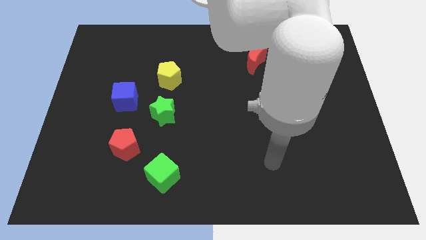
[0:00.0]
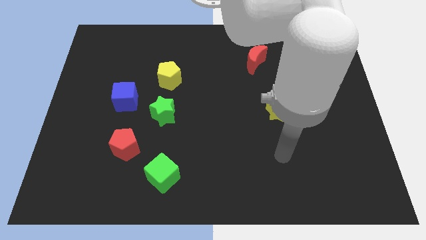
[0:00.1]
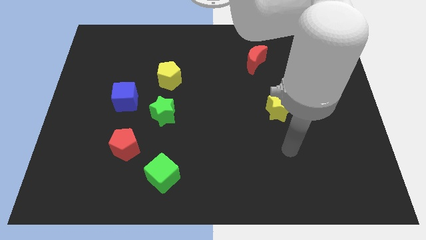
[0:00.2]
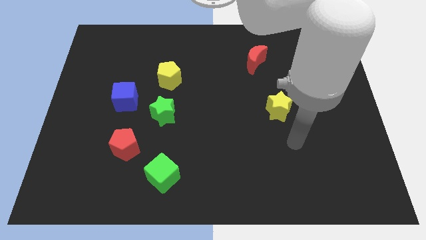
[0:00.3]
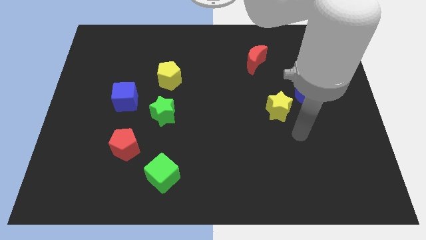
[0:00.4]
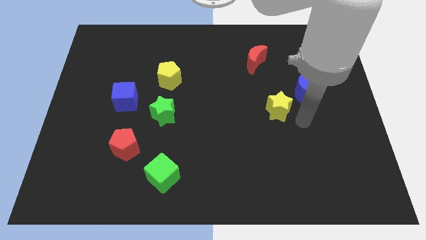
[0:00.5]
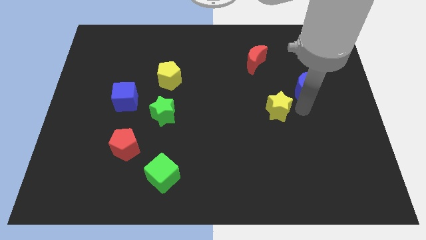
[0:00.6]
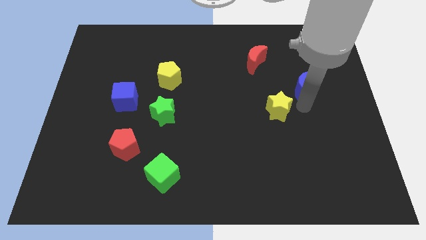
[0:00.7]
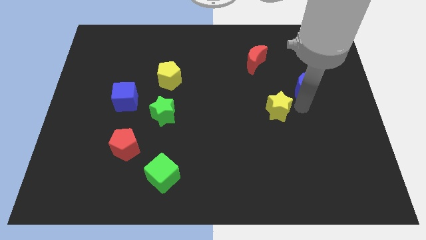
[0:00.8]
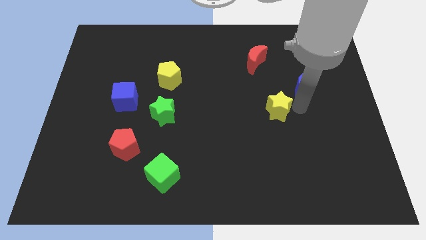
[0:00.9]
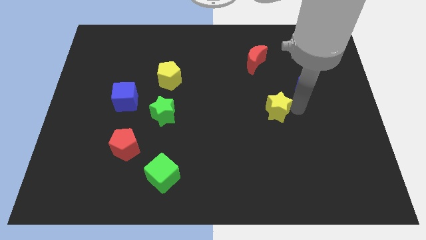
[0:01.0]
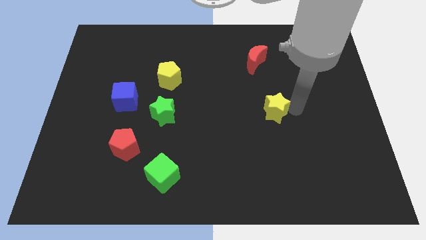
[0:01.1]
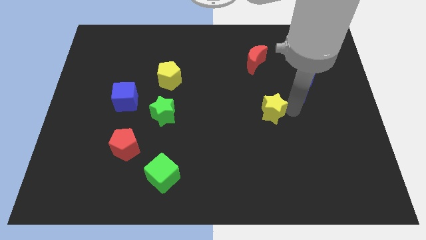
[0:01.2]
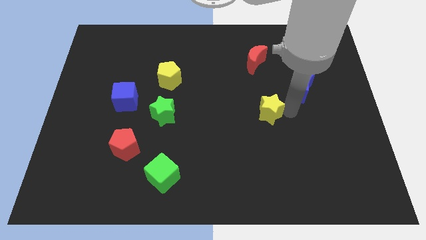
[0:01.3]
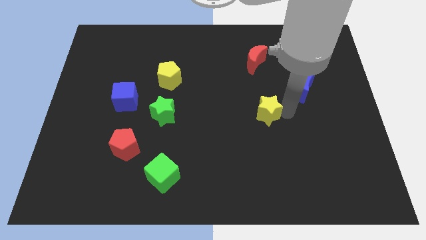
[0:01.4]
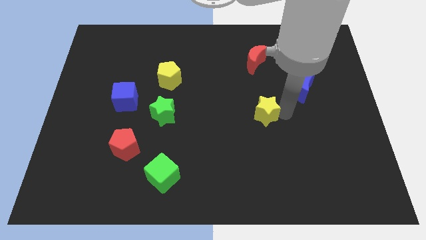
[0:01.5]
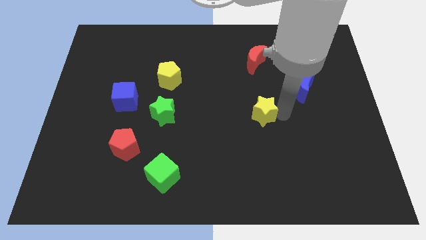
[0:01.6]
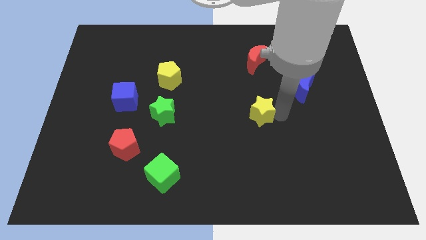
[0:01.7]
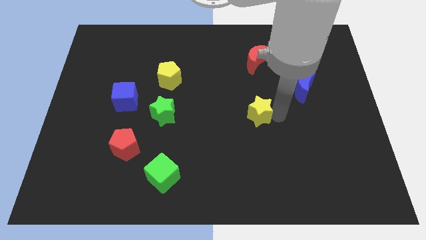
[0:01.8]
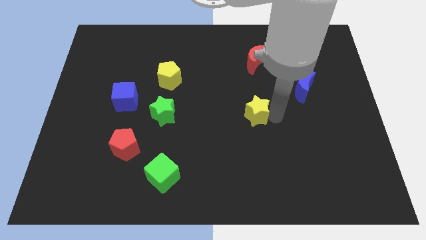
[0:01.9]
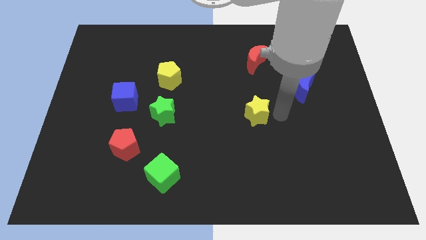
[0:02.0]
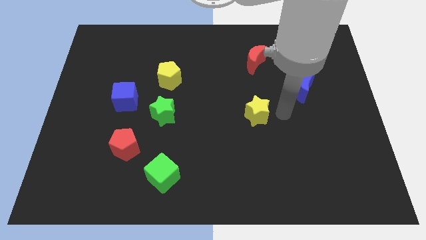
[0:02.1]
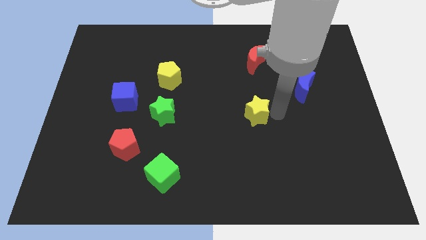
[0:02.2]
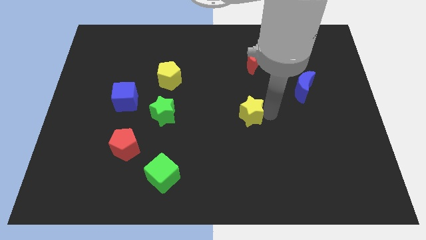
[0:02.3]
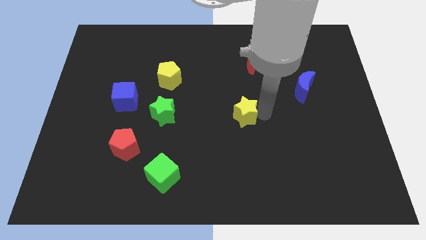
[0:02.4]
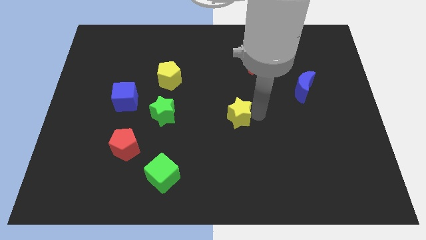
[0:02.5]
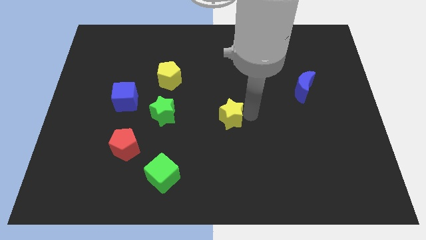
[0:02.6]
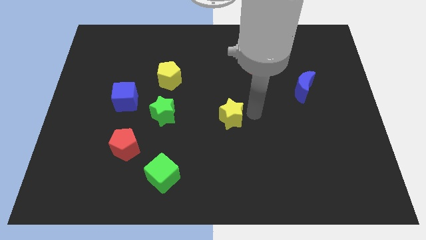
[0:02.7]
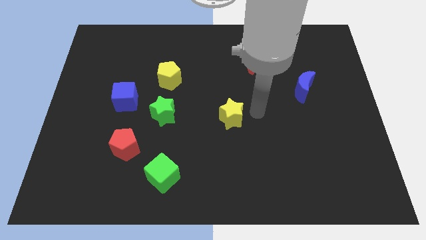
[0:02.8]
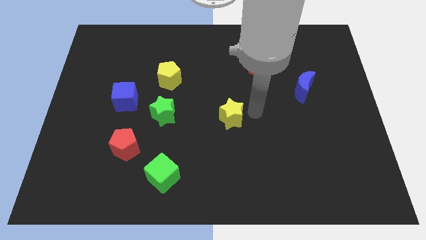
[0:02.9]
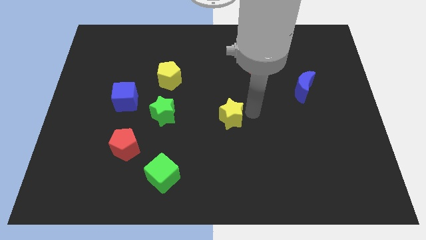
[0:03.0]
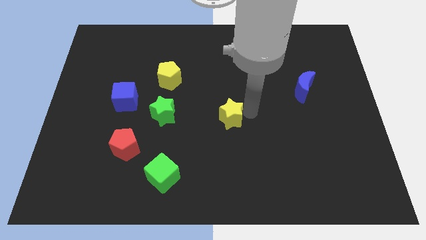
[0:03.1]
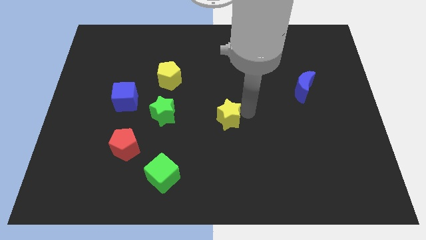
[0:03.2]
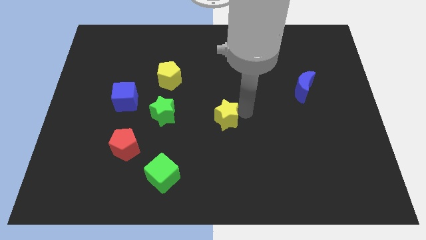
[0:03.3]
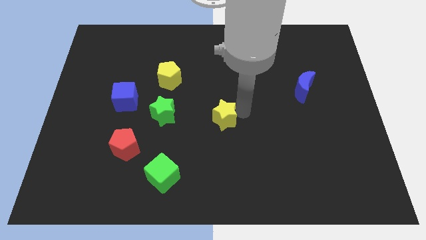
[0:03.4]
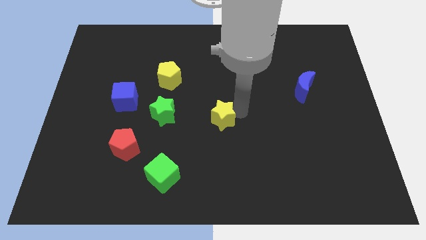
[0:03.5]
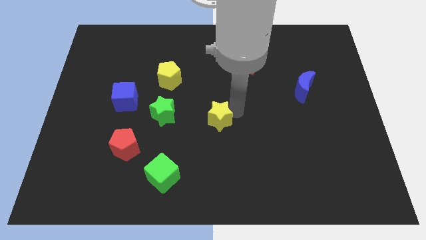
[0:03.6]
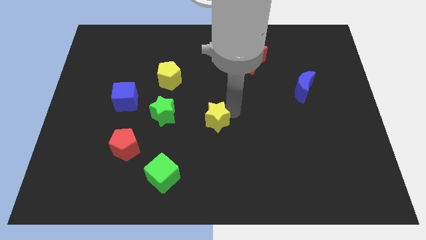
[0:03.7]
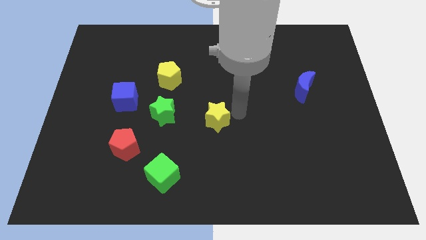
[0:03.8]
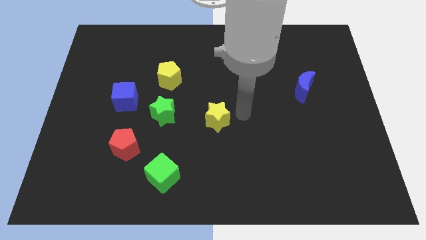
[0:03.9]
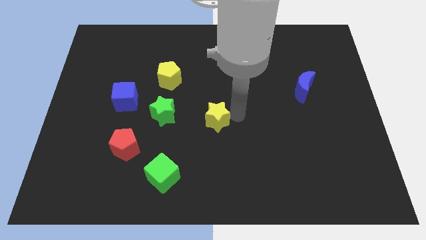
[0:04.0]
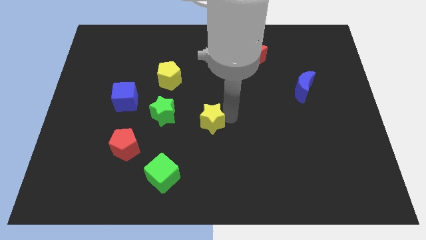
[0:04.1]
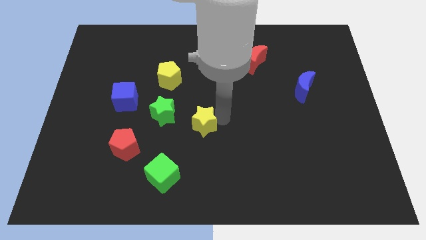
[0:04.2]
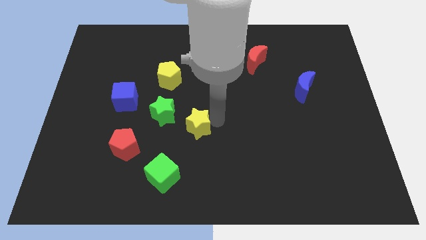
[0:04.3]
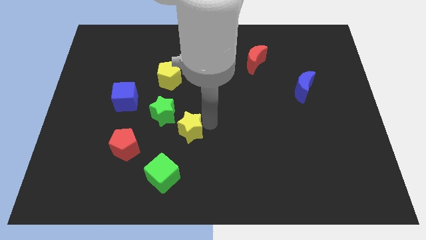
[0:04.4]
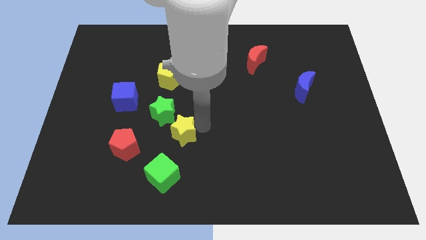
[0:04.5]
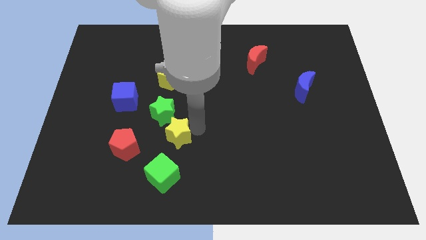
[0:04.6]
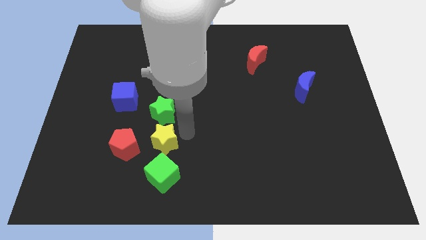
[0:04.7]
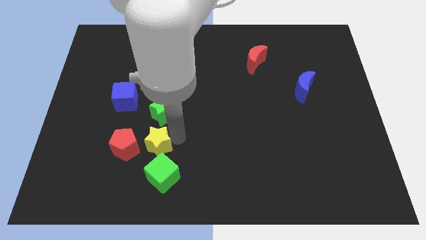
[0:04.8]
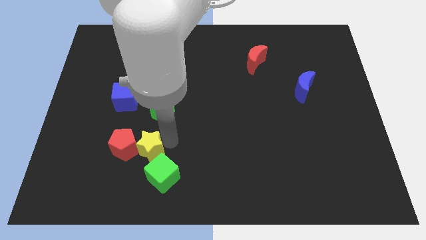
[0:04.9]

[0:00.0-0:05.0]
push the yellow star to the red pentagon

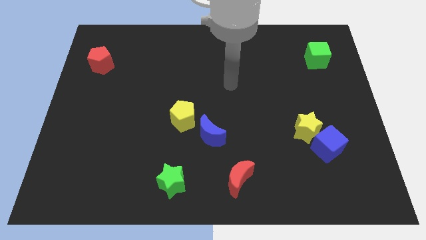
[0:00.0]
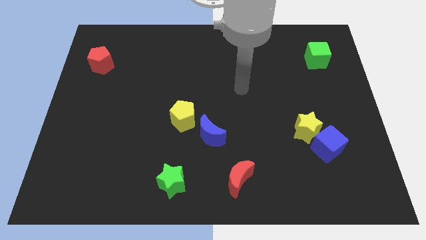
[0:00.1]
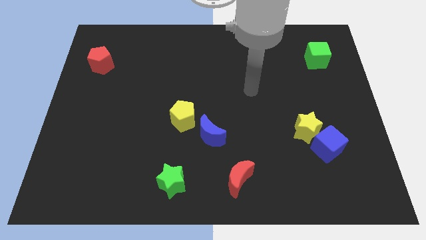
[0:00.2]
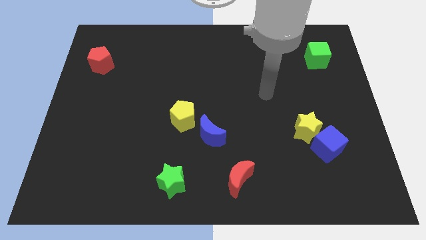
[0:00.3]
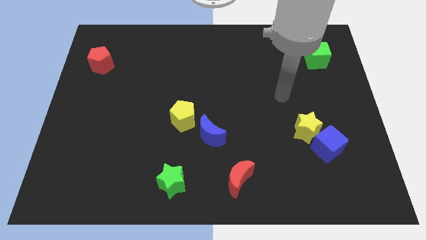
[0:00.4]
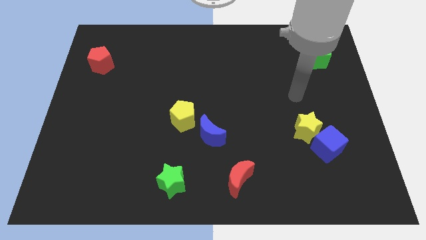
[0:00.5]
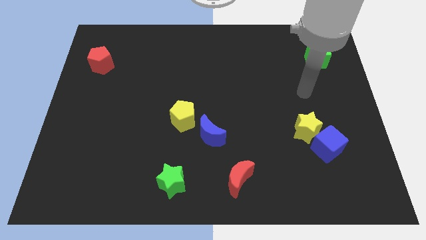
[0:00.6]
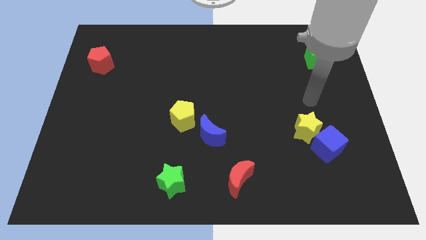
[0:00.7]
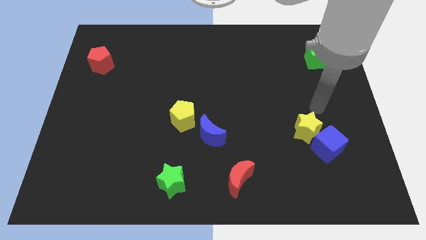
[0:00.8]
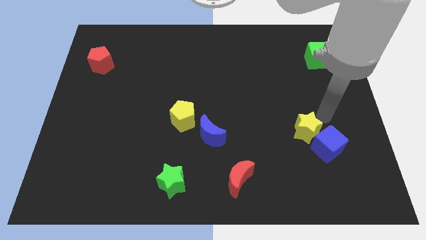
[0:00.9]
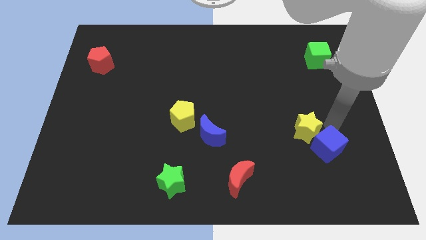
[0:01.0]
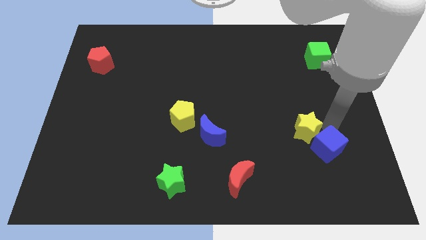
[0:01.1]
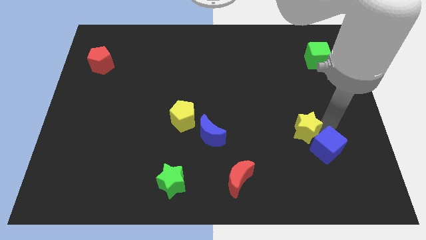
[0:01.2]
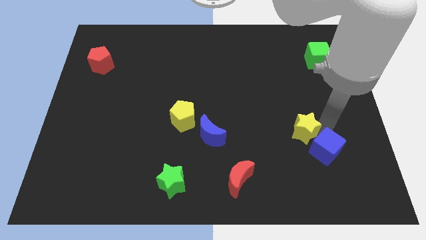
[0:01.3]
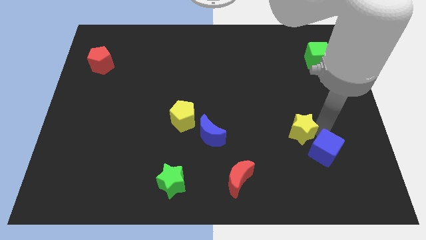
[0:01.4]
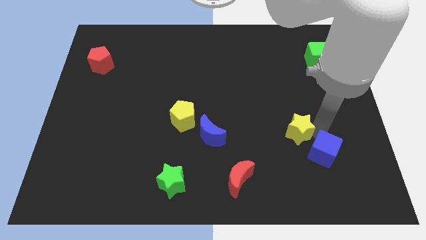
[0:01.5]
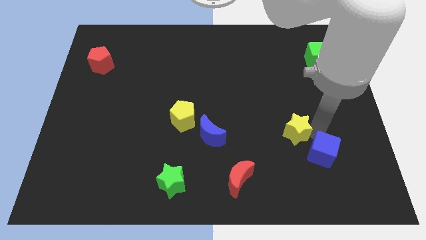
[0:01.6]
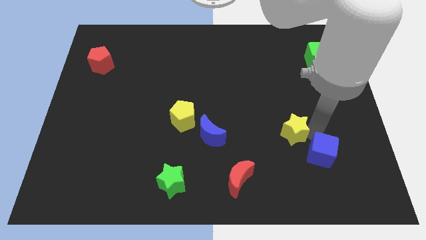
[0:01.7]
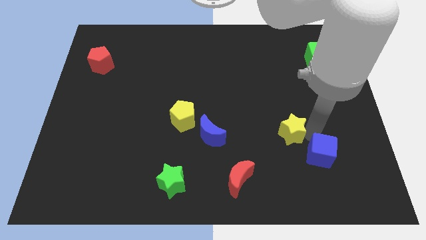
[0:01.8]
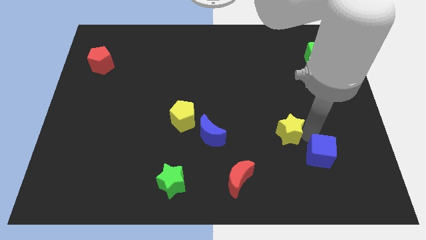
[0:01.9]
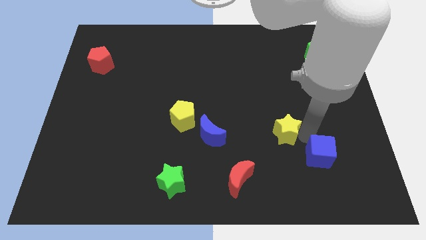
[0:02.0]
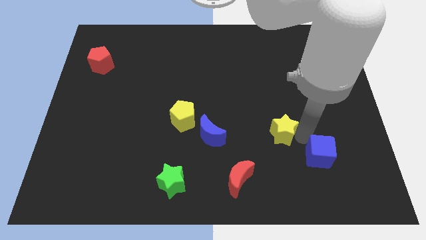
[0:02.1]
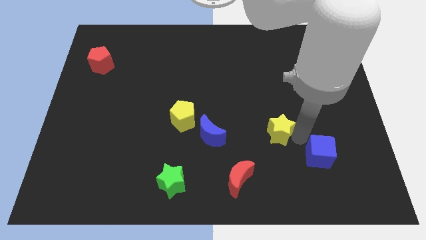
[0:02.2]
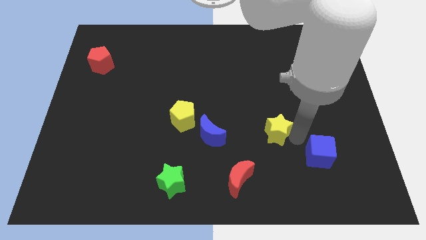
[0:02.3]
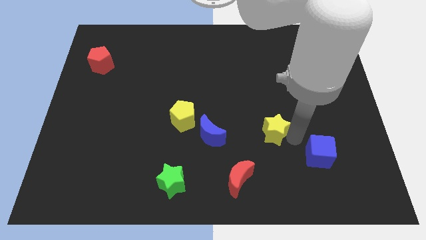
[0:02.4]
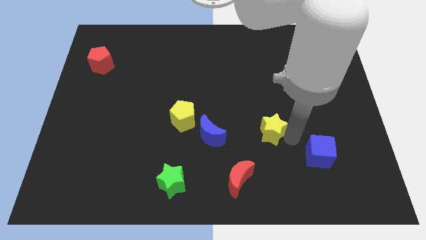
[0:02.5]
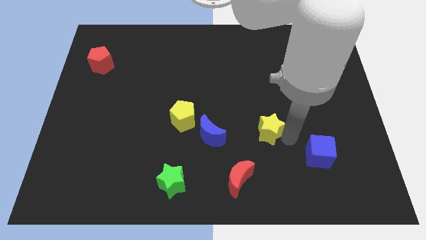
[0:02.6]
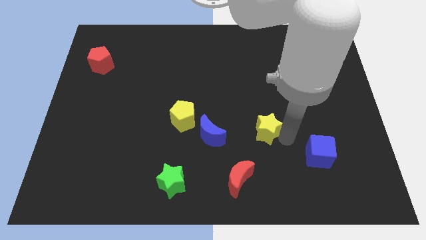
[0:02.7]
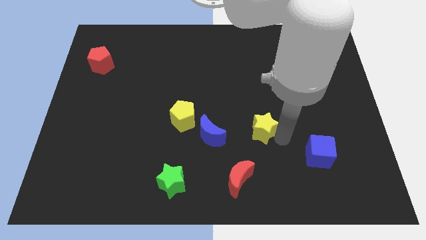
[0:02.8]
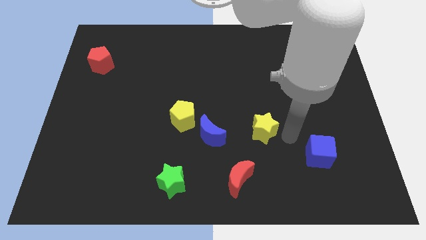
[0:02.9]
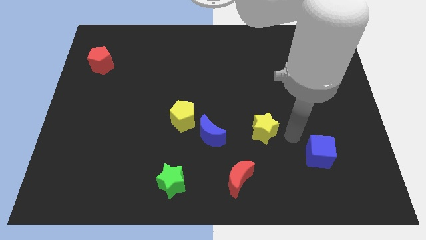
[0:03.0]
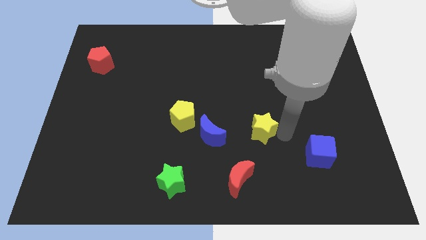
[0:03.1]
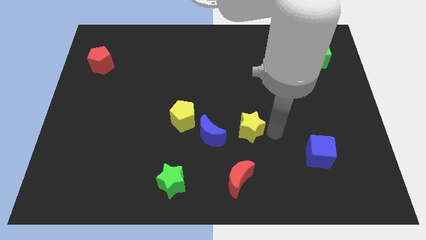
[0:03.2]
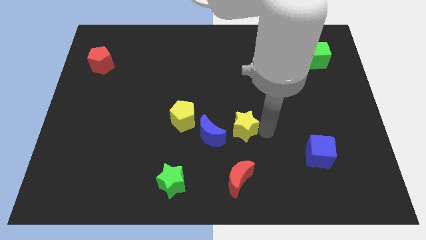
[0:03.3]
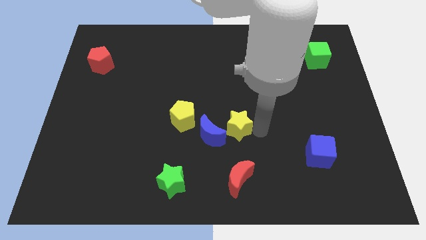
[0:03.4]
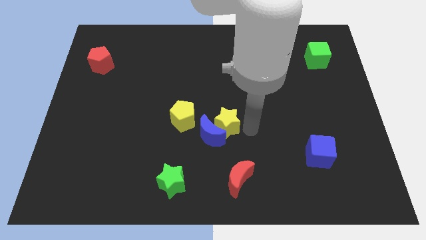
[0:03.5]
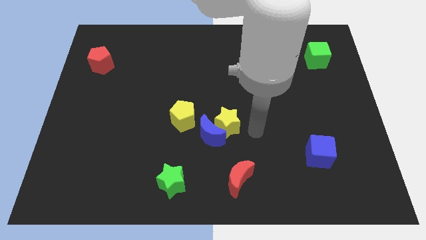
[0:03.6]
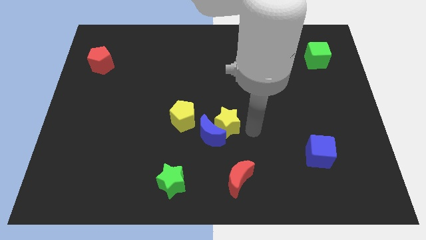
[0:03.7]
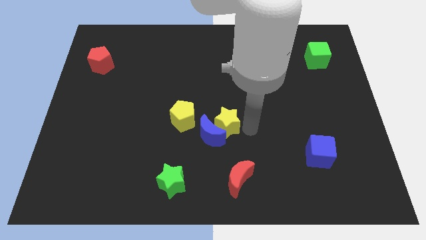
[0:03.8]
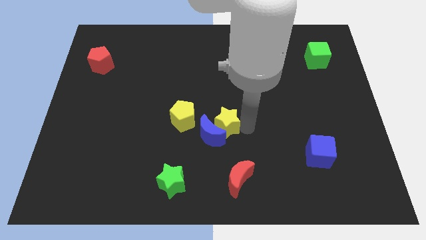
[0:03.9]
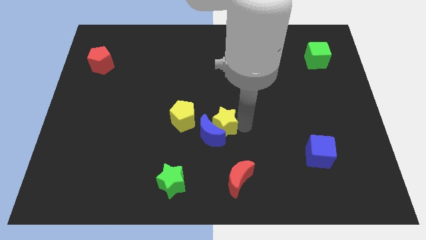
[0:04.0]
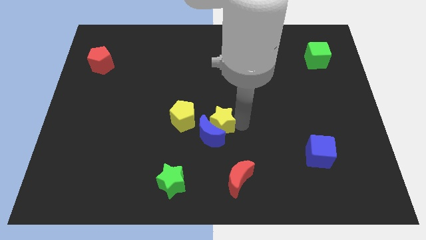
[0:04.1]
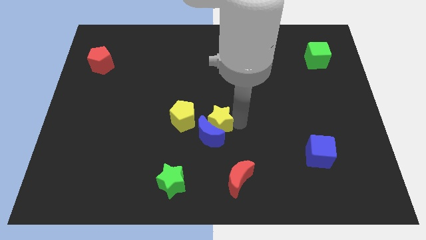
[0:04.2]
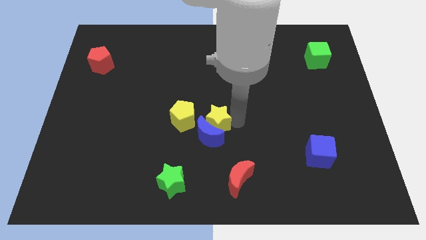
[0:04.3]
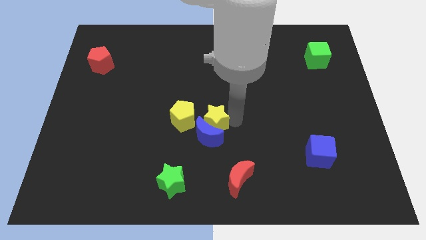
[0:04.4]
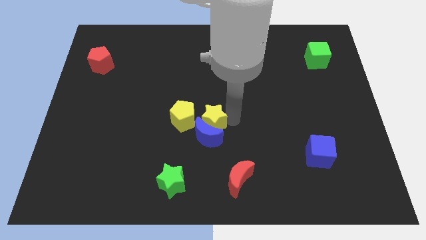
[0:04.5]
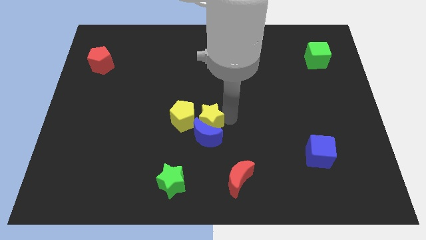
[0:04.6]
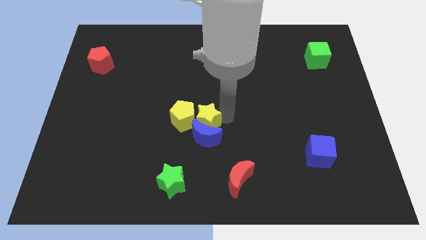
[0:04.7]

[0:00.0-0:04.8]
slide the yellow star next to the yellow pentagon
